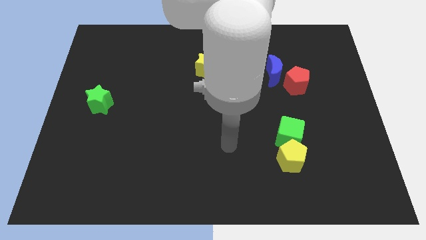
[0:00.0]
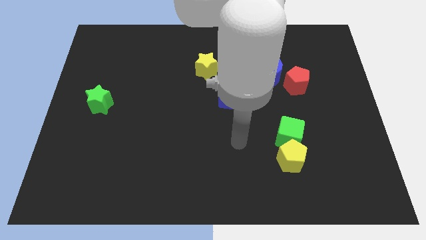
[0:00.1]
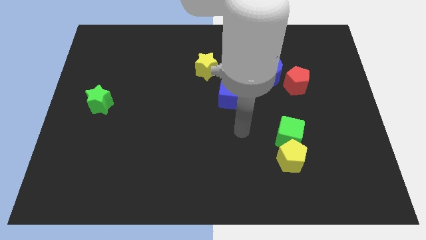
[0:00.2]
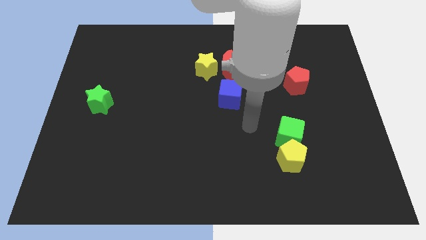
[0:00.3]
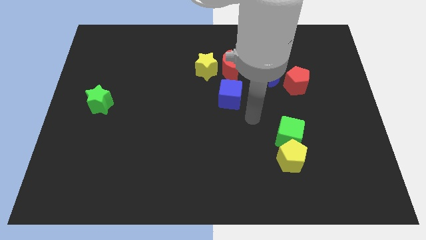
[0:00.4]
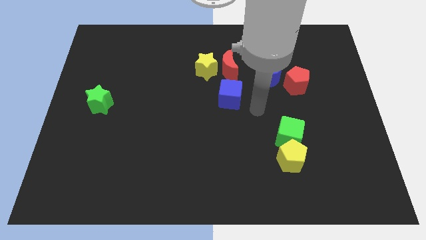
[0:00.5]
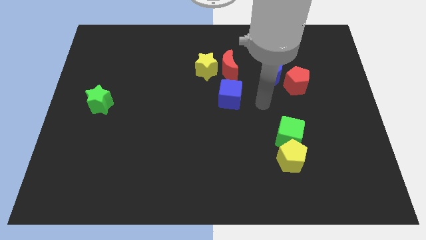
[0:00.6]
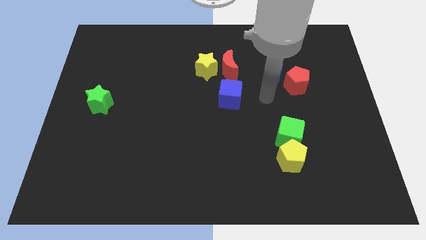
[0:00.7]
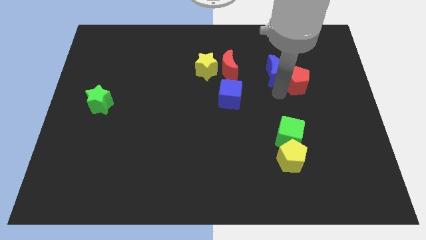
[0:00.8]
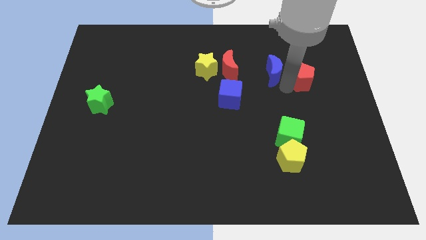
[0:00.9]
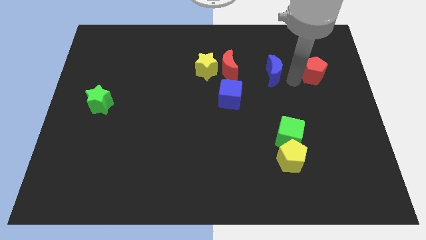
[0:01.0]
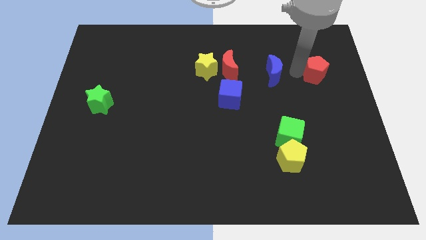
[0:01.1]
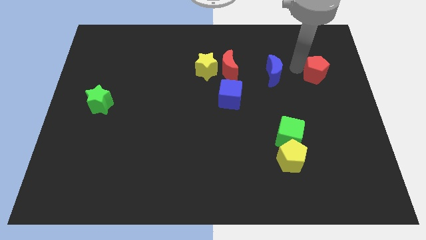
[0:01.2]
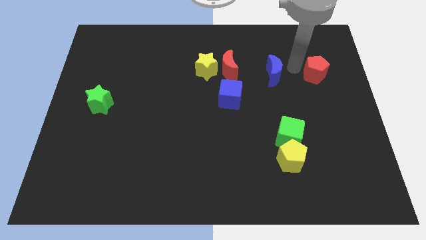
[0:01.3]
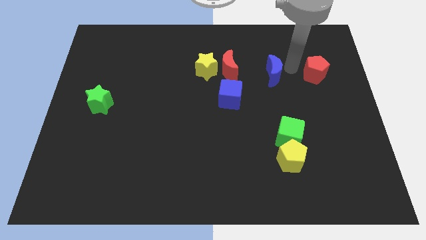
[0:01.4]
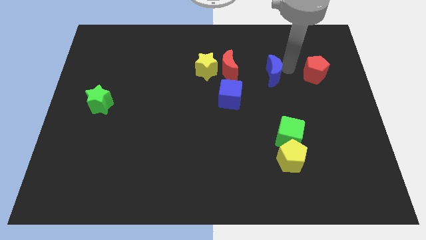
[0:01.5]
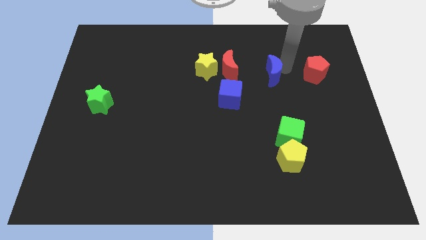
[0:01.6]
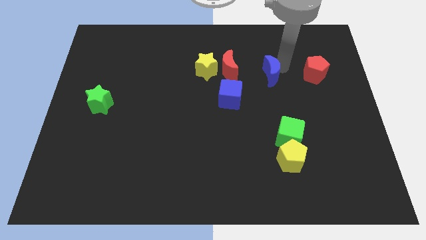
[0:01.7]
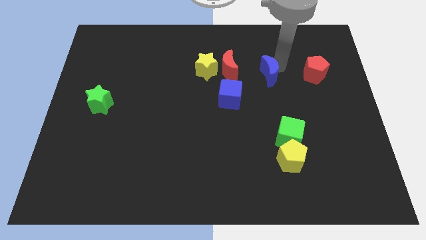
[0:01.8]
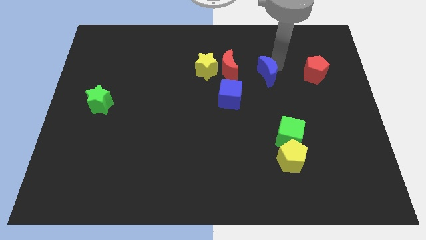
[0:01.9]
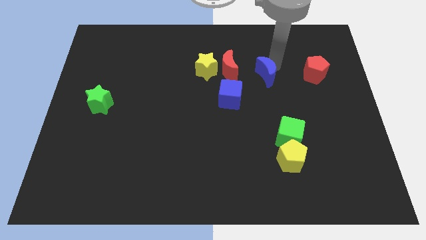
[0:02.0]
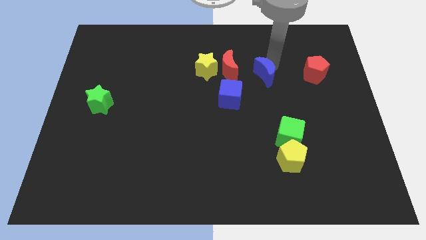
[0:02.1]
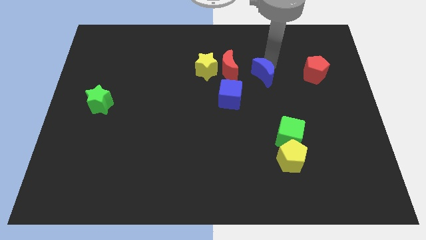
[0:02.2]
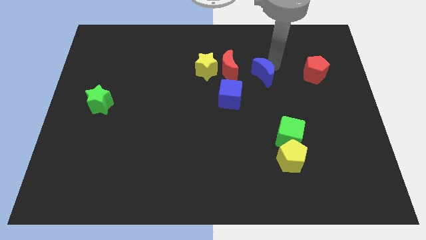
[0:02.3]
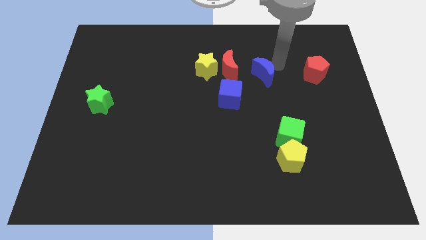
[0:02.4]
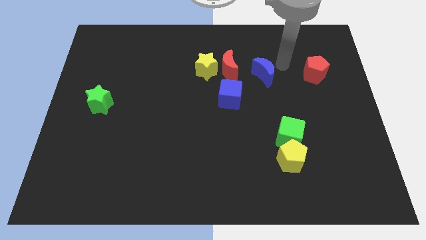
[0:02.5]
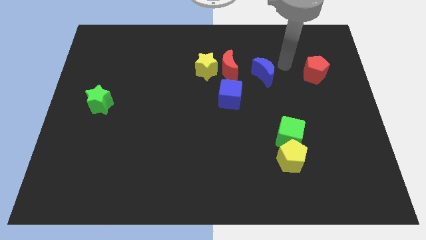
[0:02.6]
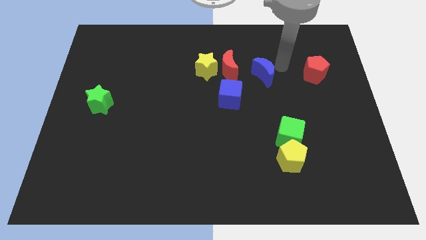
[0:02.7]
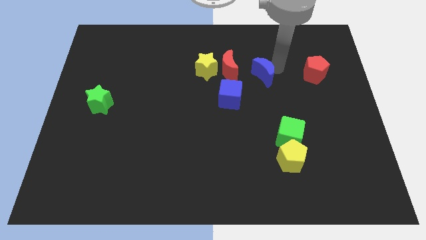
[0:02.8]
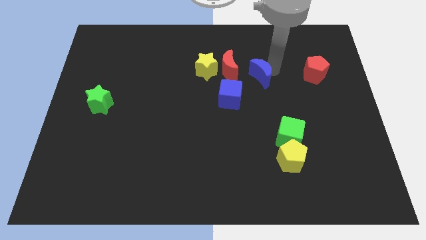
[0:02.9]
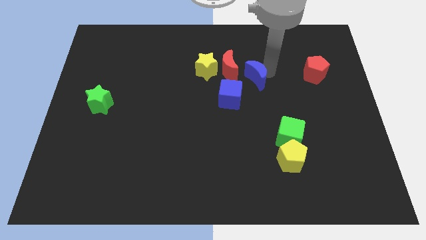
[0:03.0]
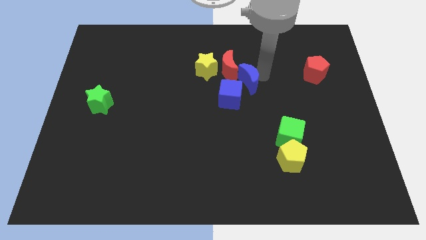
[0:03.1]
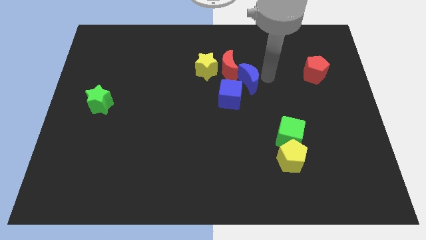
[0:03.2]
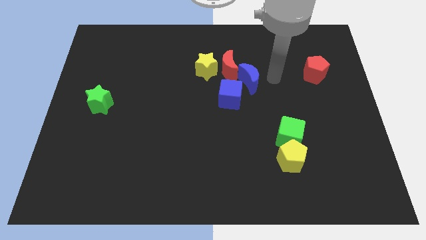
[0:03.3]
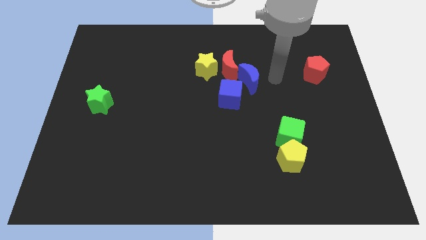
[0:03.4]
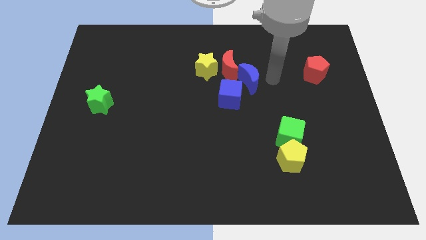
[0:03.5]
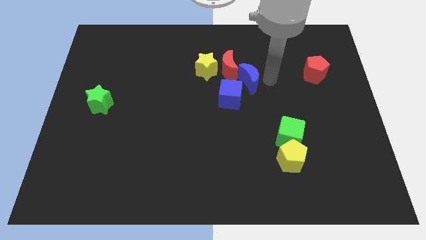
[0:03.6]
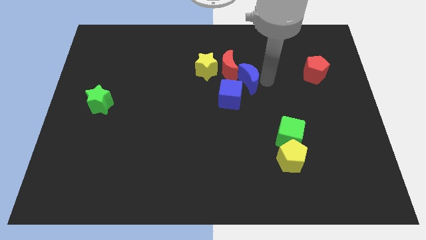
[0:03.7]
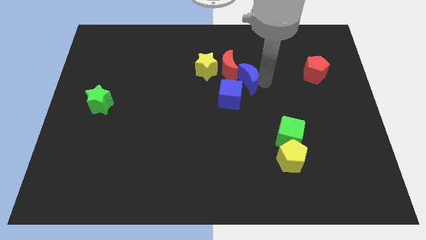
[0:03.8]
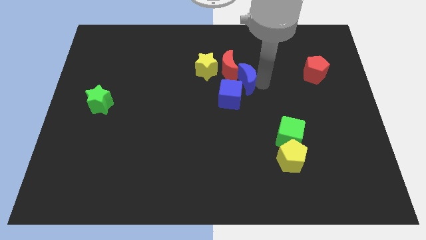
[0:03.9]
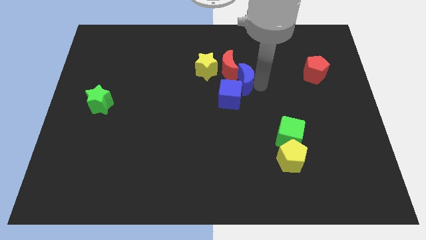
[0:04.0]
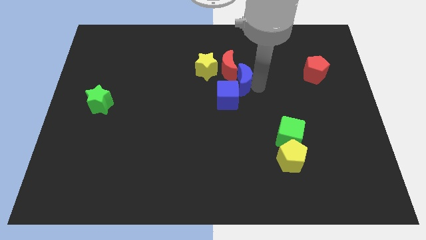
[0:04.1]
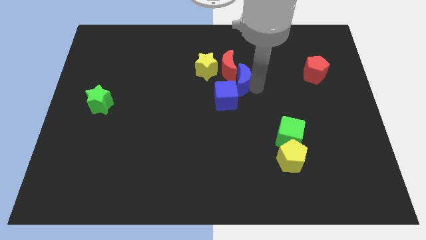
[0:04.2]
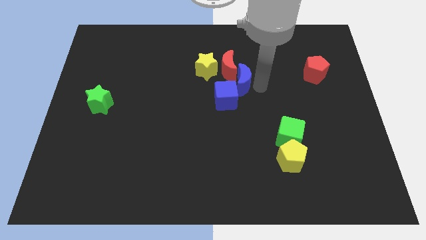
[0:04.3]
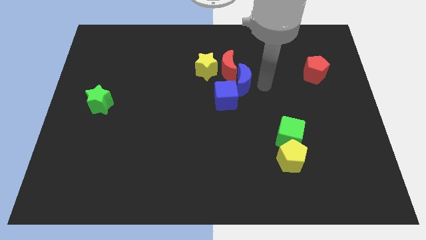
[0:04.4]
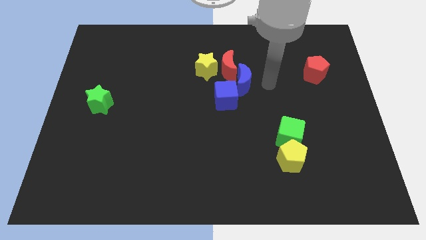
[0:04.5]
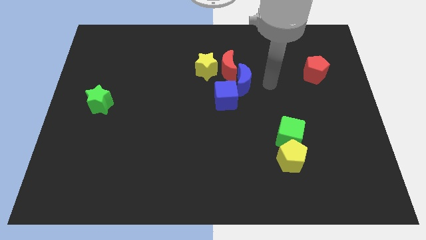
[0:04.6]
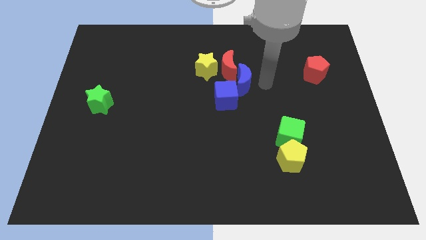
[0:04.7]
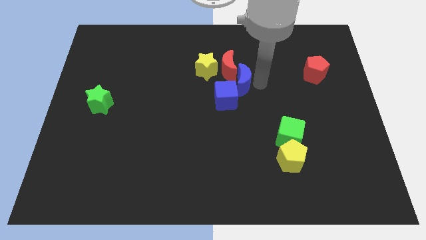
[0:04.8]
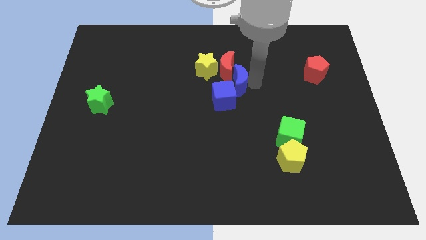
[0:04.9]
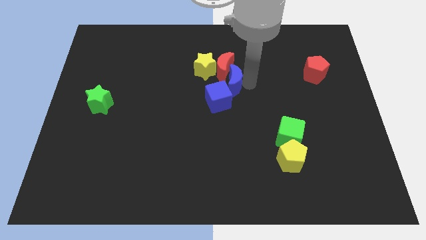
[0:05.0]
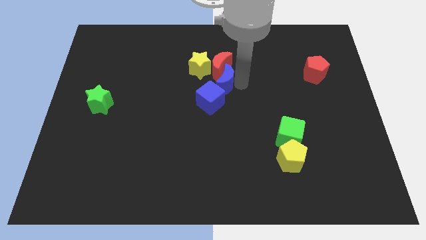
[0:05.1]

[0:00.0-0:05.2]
push the blue moon diagonally down and to the left of the red moon

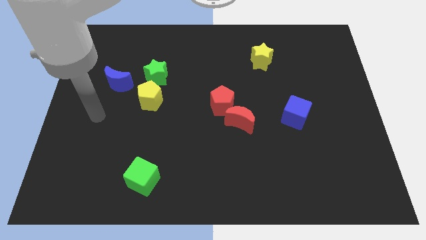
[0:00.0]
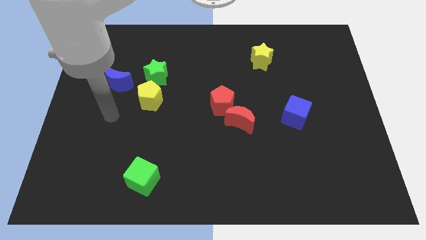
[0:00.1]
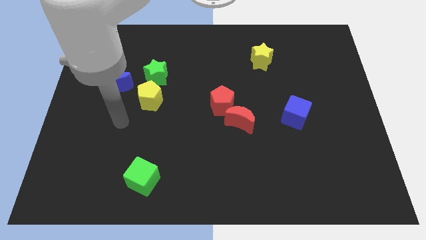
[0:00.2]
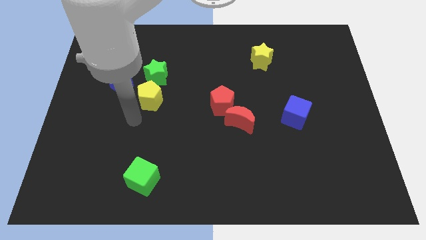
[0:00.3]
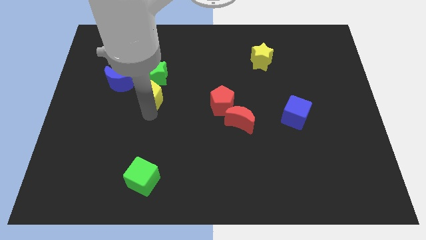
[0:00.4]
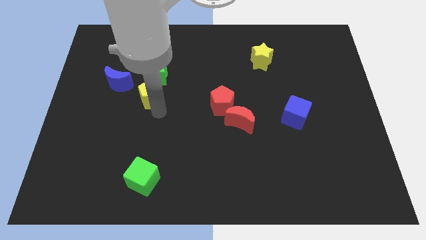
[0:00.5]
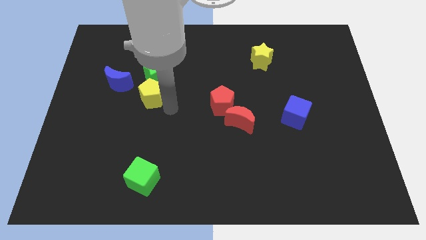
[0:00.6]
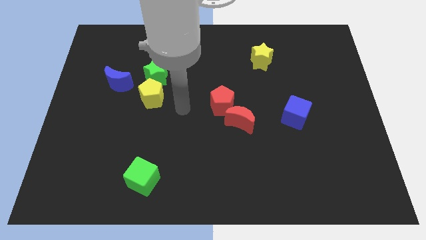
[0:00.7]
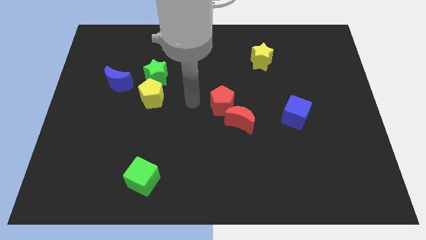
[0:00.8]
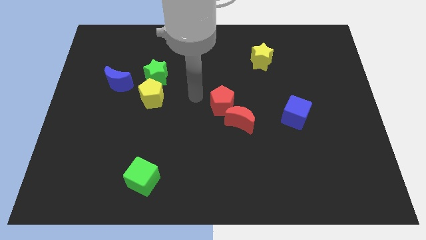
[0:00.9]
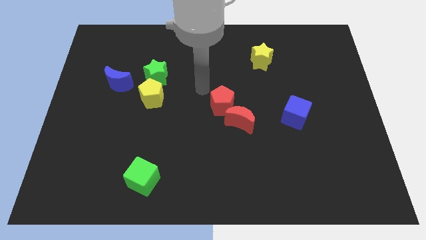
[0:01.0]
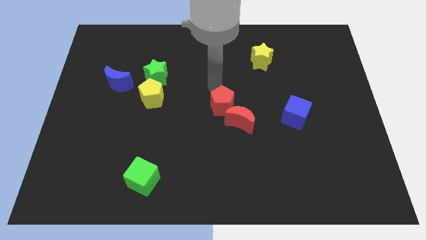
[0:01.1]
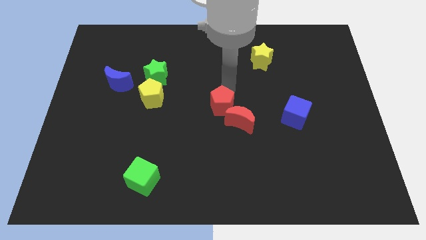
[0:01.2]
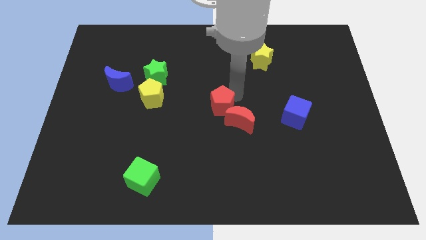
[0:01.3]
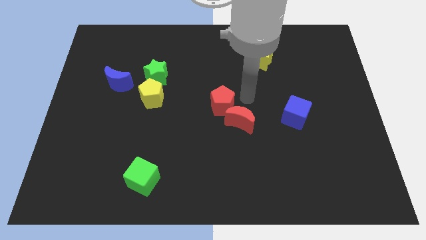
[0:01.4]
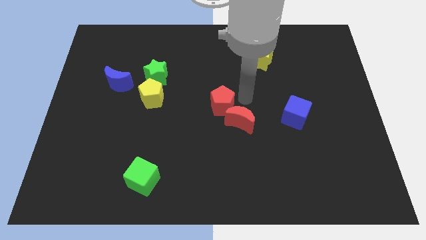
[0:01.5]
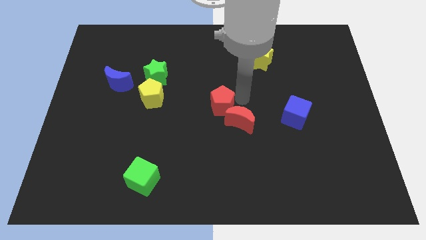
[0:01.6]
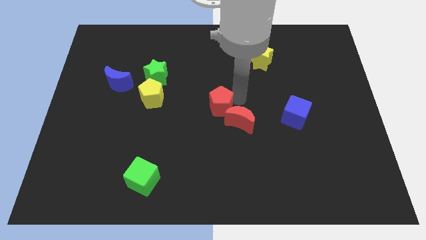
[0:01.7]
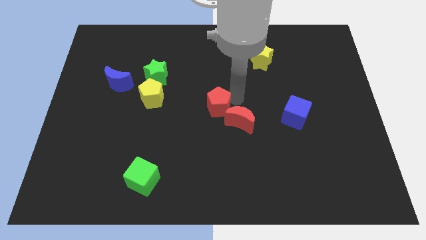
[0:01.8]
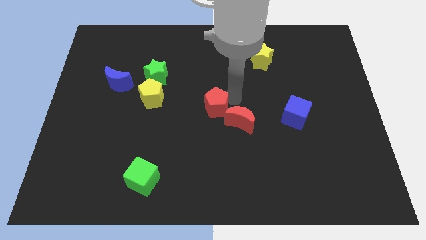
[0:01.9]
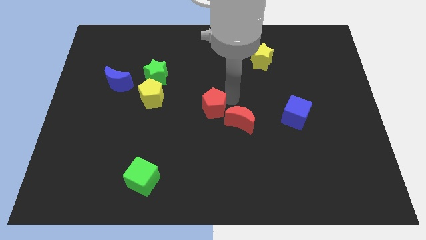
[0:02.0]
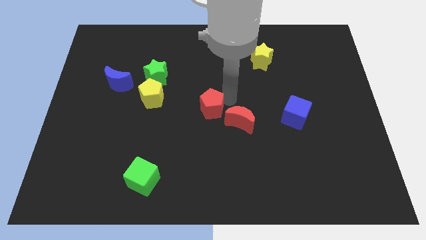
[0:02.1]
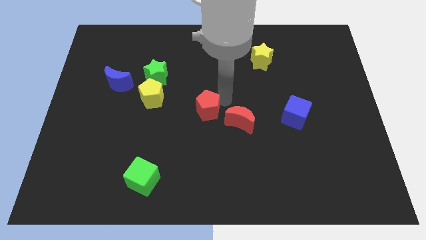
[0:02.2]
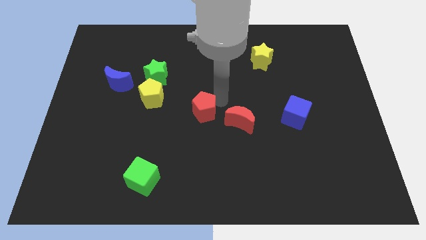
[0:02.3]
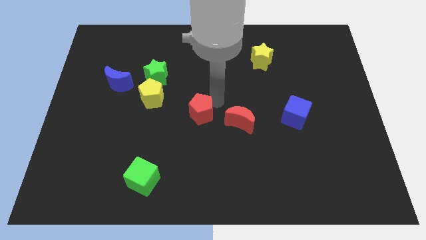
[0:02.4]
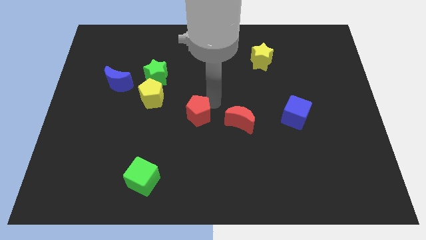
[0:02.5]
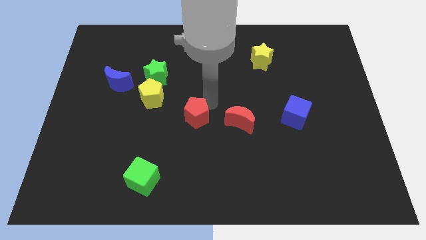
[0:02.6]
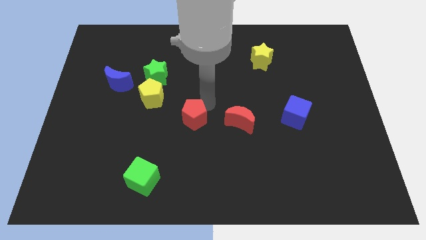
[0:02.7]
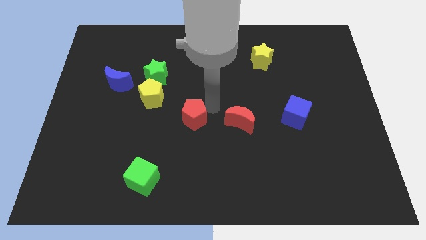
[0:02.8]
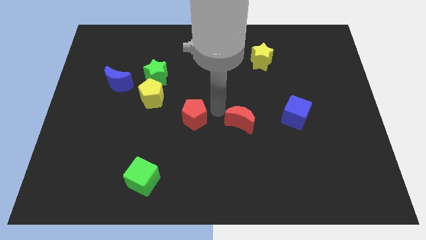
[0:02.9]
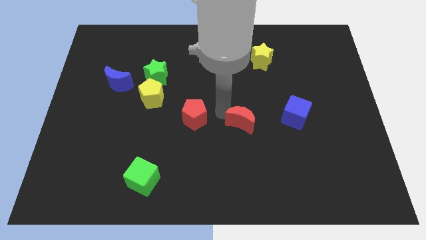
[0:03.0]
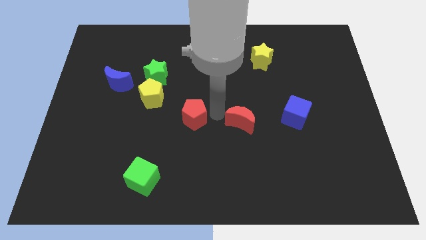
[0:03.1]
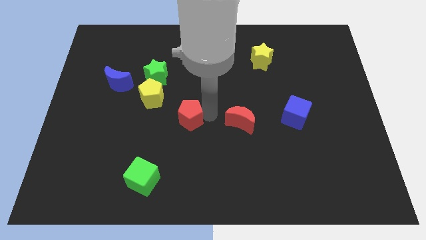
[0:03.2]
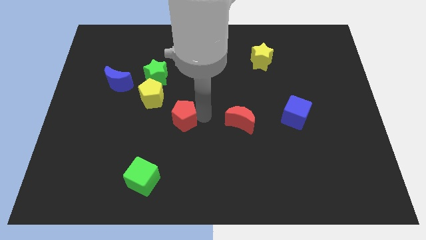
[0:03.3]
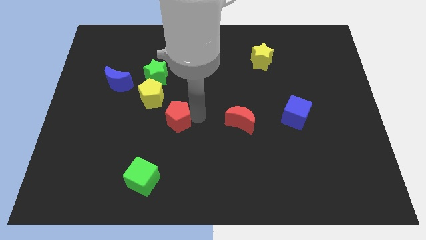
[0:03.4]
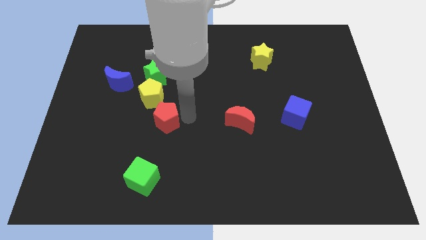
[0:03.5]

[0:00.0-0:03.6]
slide the red pentagon to the bottom of the yellow pentagon
